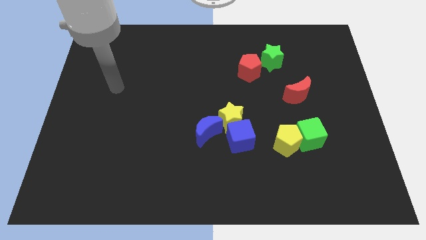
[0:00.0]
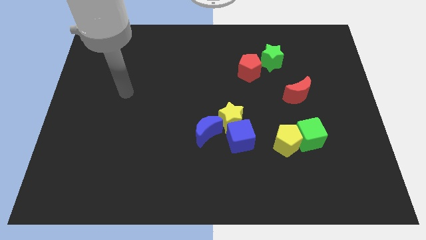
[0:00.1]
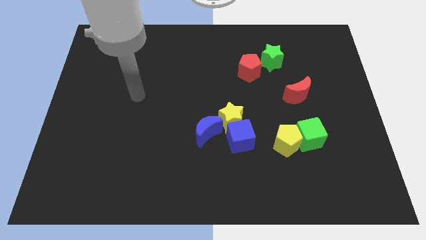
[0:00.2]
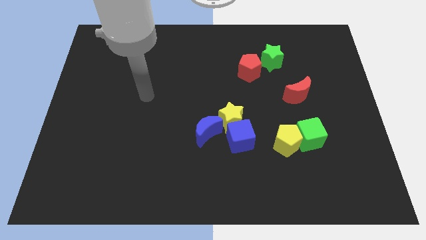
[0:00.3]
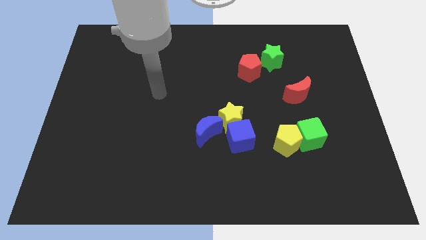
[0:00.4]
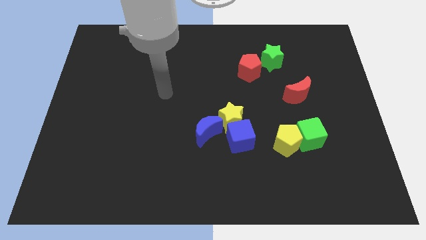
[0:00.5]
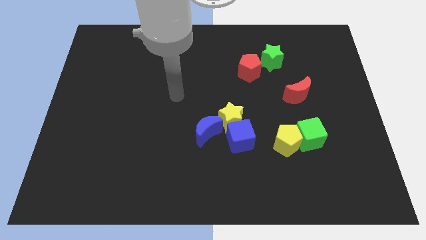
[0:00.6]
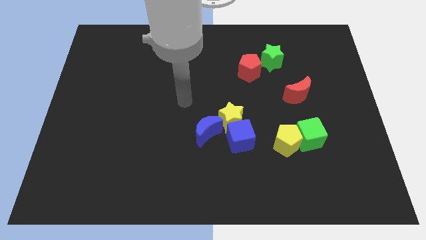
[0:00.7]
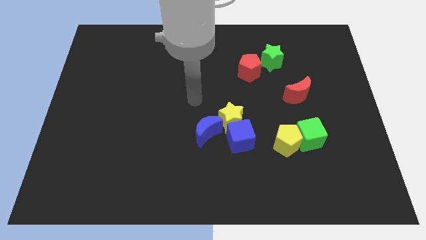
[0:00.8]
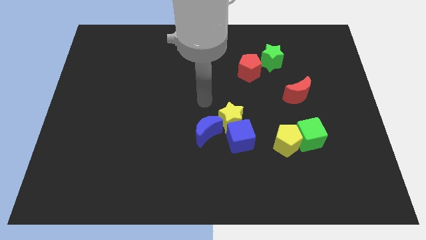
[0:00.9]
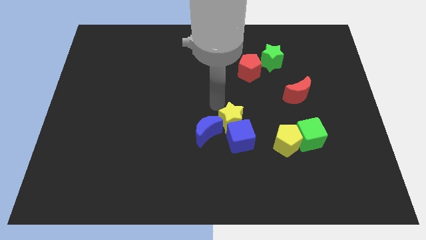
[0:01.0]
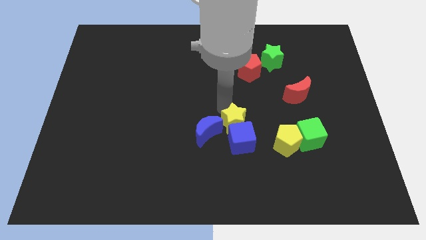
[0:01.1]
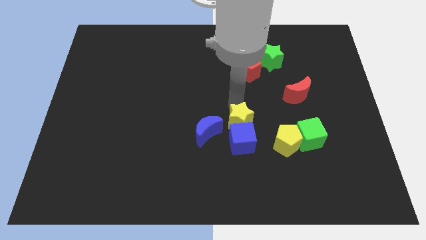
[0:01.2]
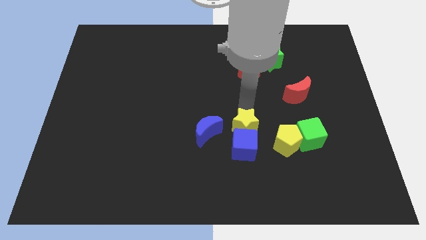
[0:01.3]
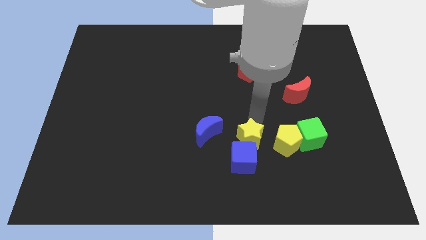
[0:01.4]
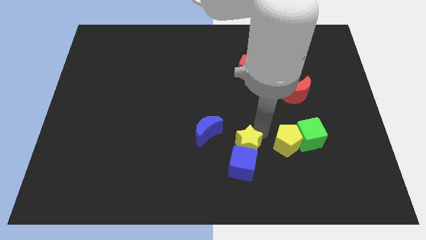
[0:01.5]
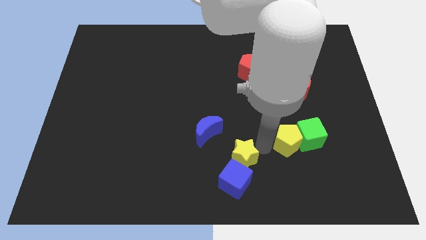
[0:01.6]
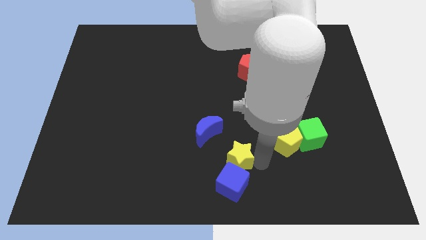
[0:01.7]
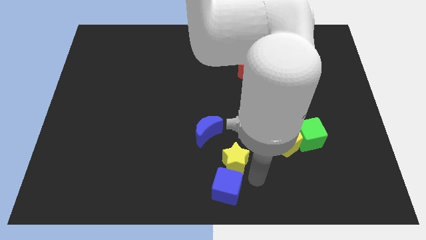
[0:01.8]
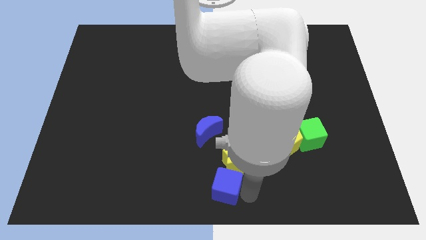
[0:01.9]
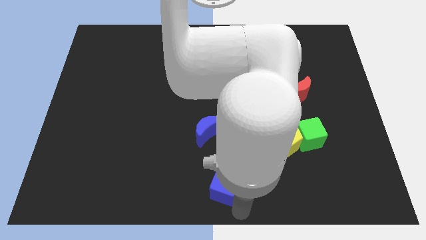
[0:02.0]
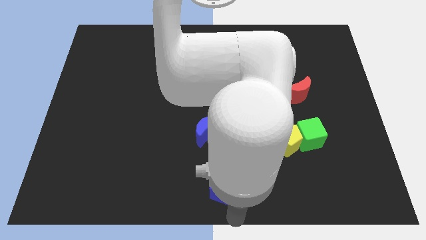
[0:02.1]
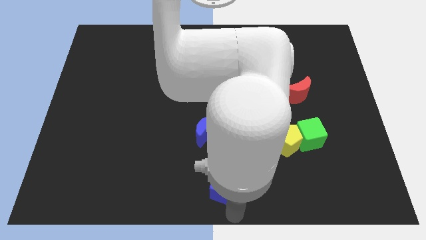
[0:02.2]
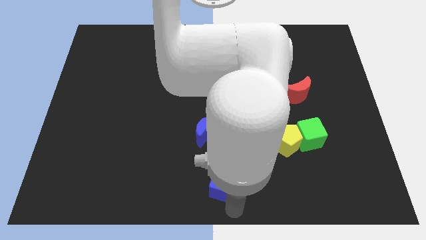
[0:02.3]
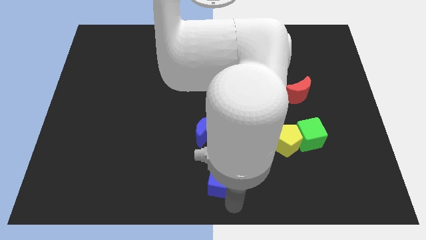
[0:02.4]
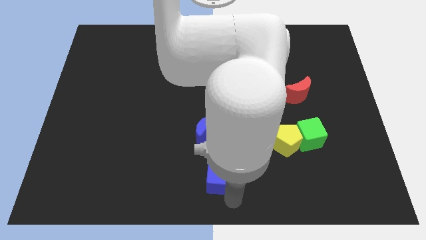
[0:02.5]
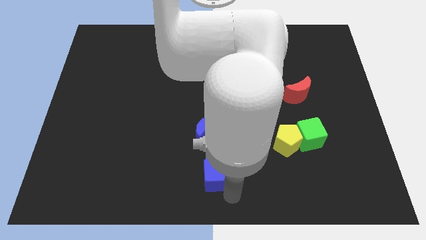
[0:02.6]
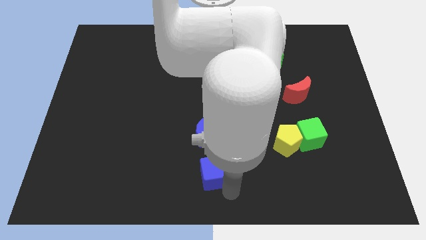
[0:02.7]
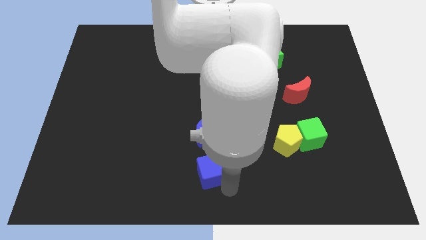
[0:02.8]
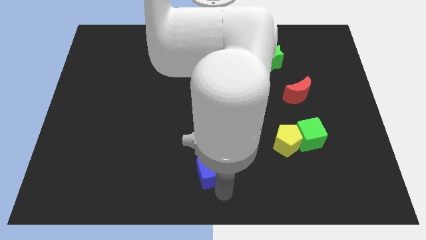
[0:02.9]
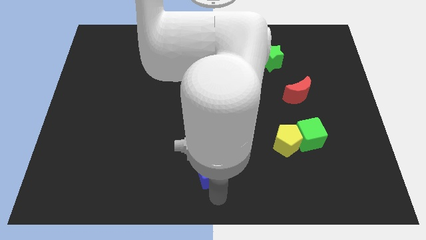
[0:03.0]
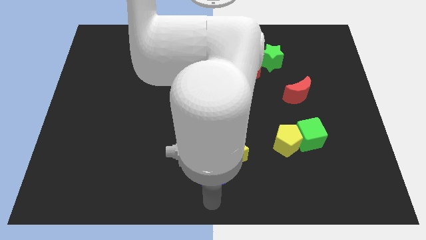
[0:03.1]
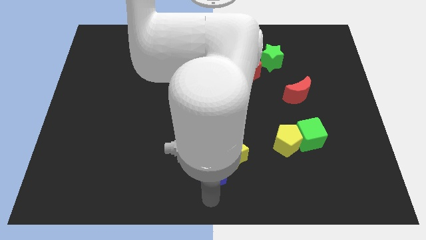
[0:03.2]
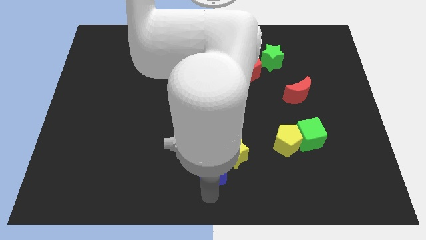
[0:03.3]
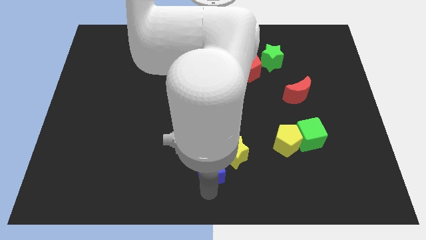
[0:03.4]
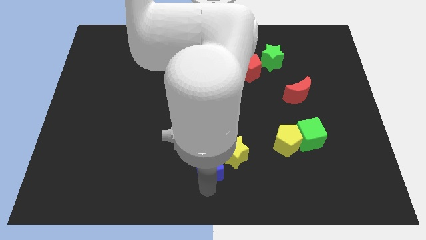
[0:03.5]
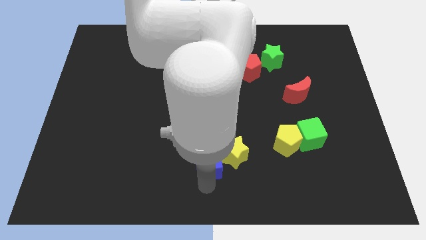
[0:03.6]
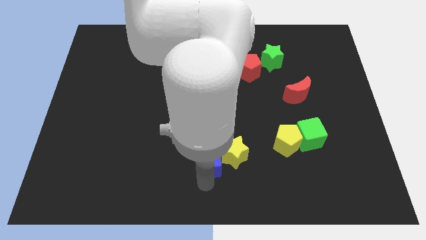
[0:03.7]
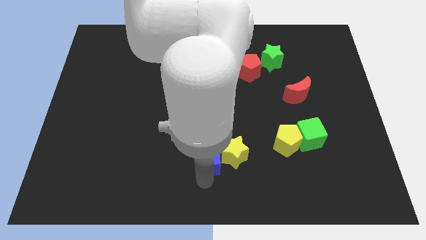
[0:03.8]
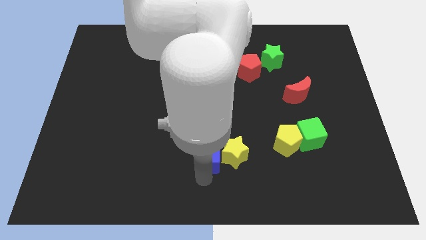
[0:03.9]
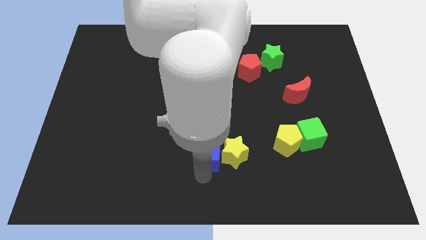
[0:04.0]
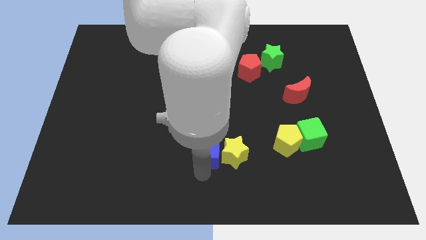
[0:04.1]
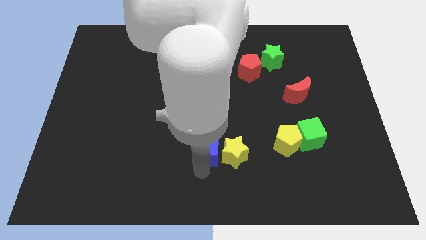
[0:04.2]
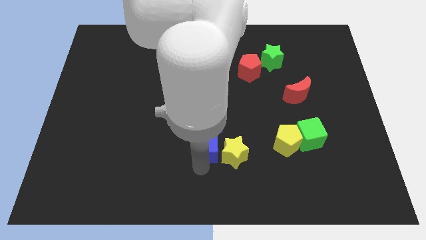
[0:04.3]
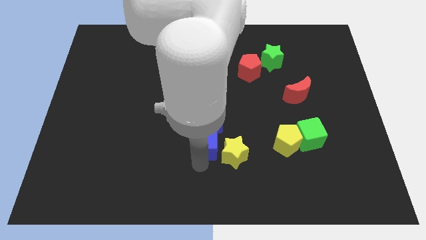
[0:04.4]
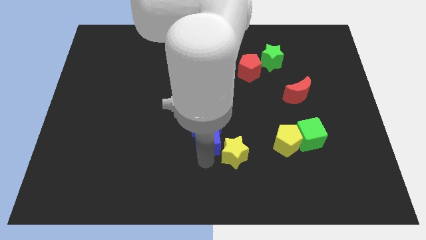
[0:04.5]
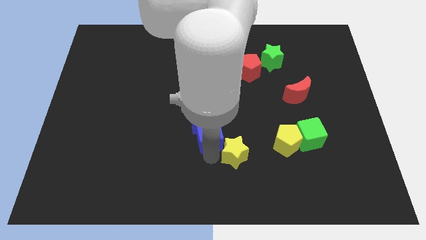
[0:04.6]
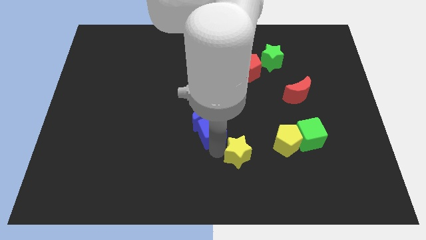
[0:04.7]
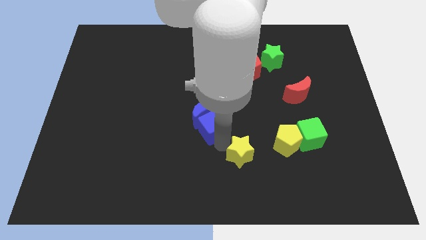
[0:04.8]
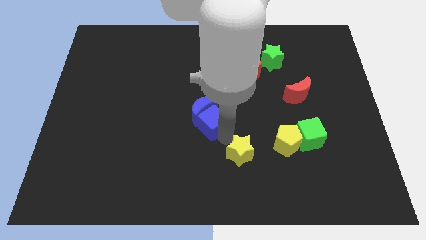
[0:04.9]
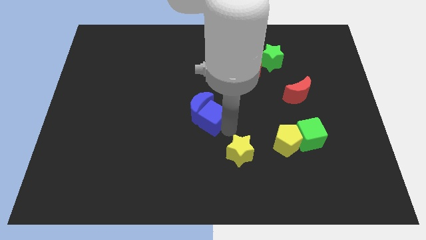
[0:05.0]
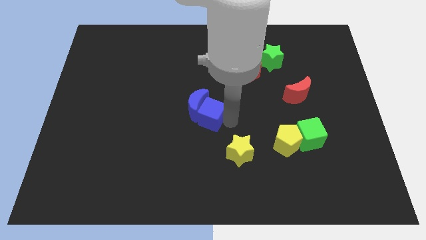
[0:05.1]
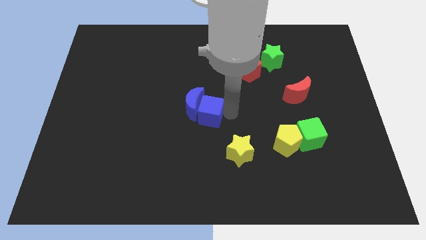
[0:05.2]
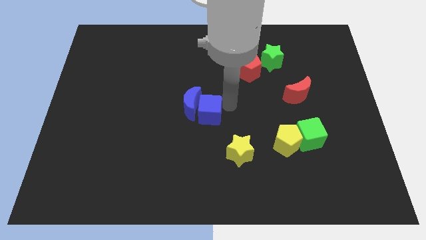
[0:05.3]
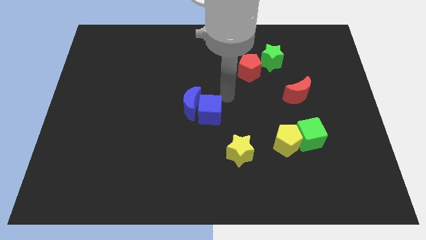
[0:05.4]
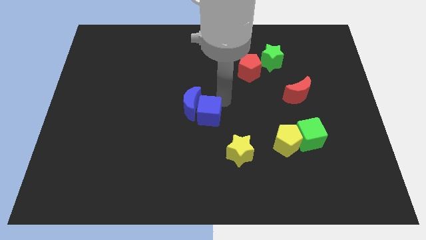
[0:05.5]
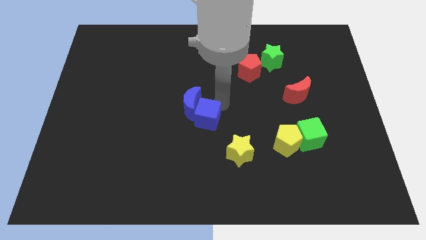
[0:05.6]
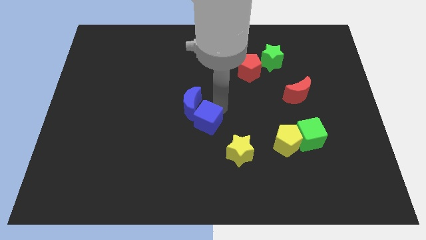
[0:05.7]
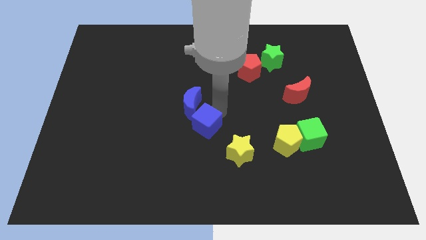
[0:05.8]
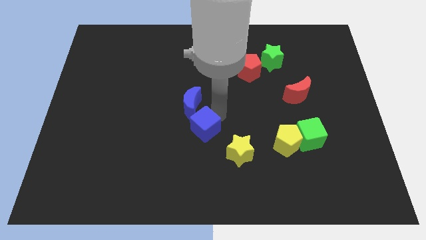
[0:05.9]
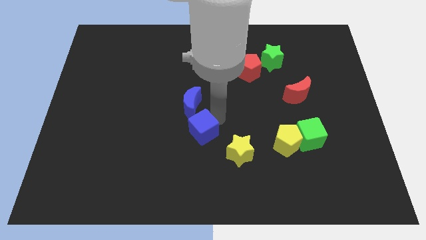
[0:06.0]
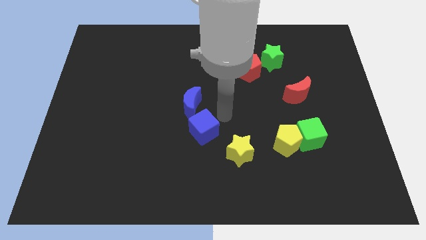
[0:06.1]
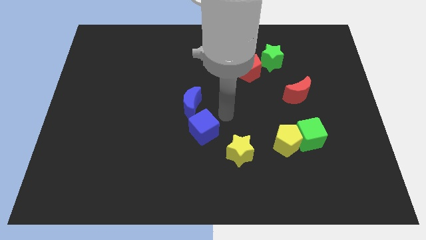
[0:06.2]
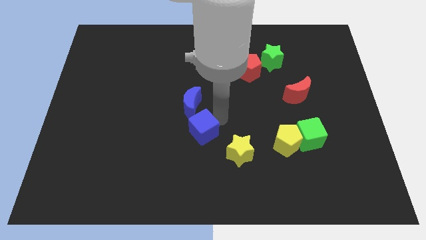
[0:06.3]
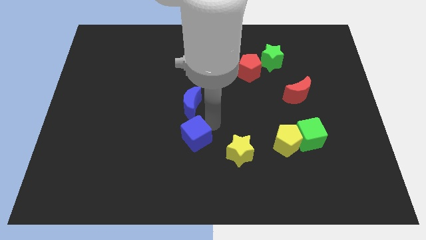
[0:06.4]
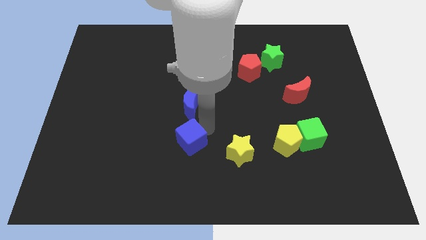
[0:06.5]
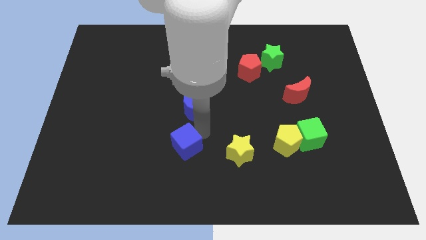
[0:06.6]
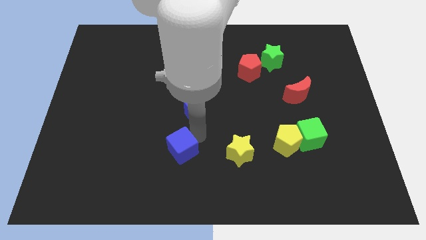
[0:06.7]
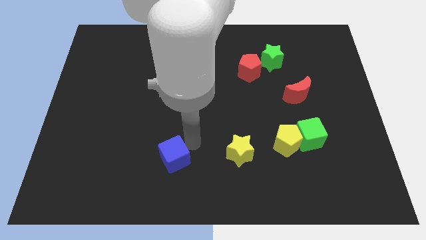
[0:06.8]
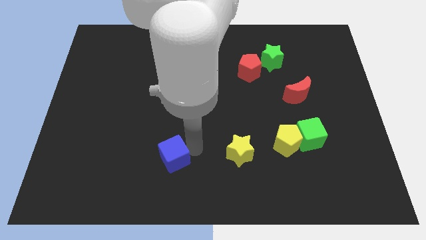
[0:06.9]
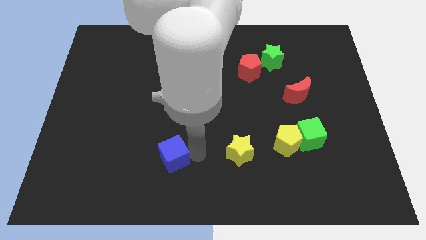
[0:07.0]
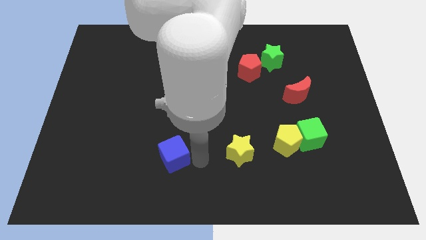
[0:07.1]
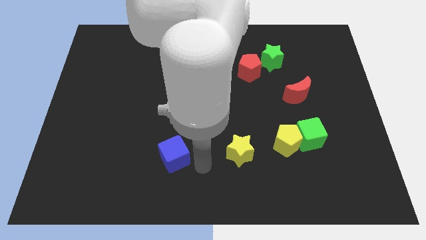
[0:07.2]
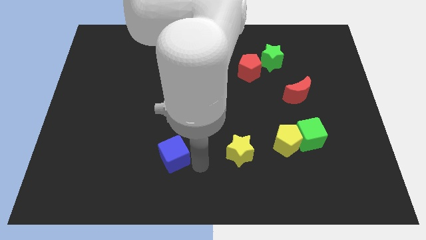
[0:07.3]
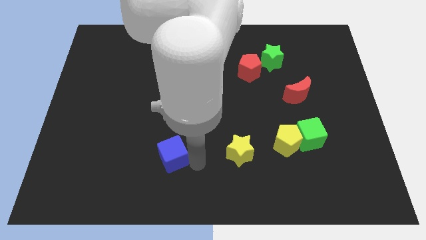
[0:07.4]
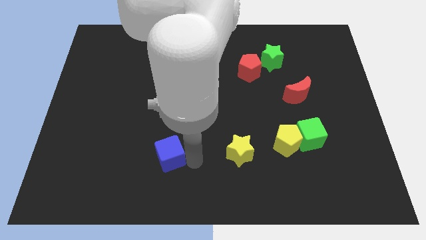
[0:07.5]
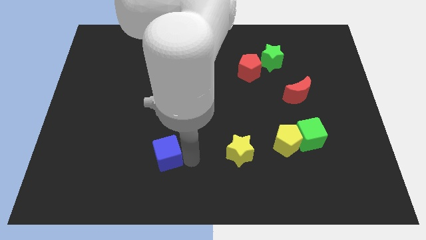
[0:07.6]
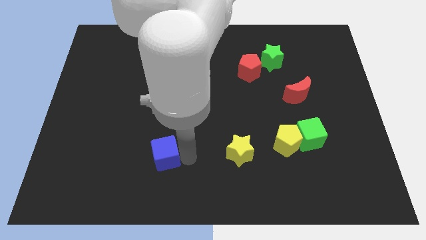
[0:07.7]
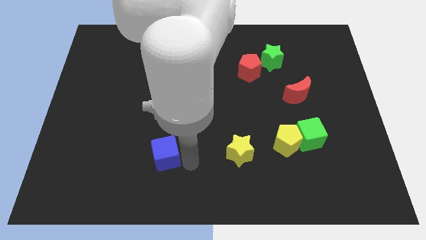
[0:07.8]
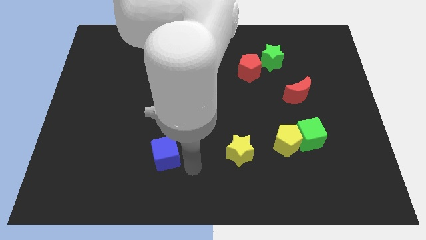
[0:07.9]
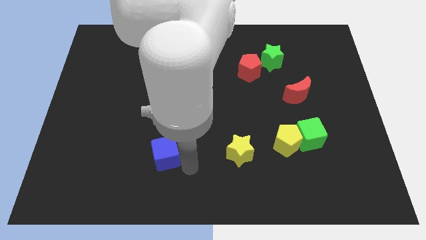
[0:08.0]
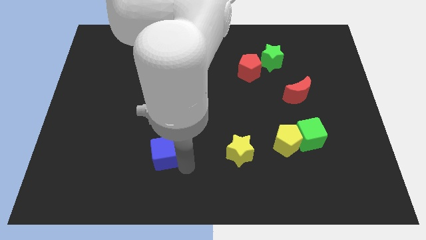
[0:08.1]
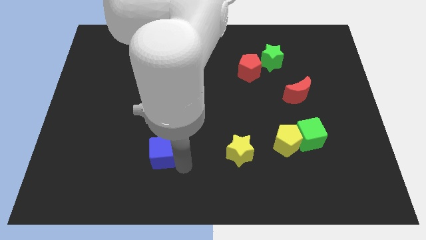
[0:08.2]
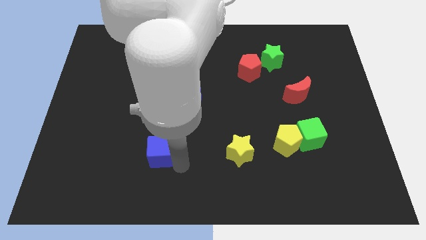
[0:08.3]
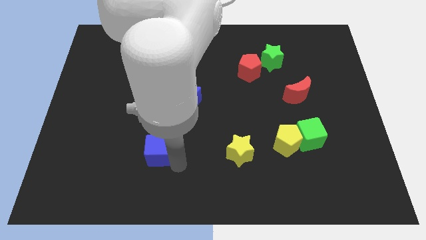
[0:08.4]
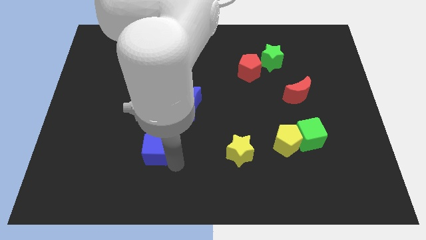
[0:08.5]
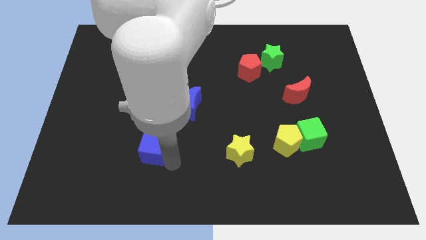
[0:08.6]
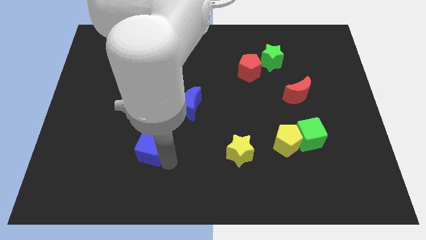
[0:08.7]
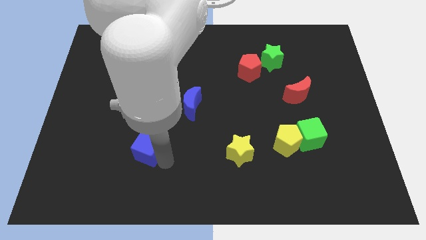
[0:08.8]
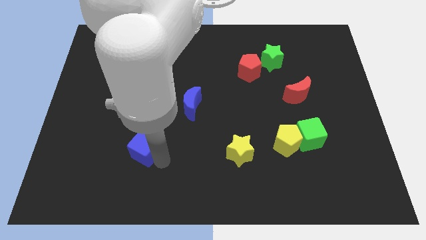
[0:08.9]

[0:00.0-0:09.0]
move the blue cube left
